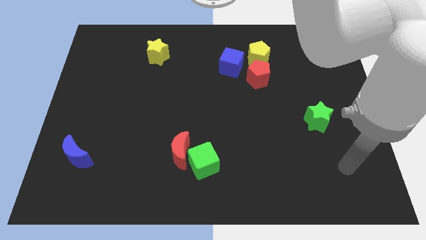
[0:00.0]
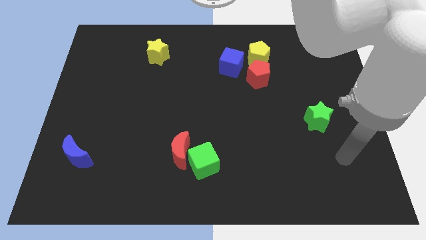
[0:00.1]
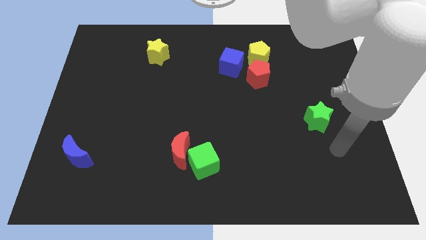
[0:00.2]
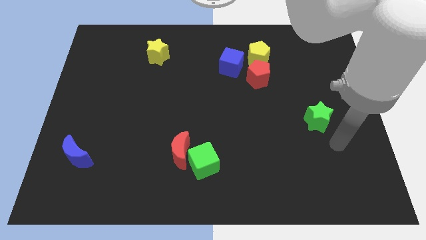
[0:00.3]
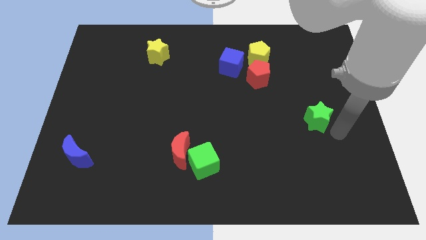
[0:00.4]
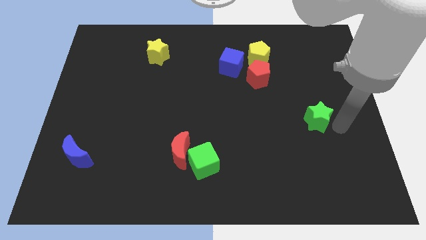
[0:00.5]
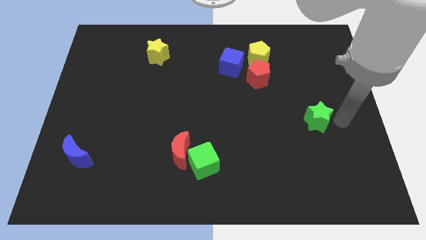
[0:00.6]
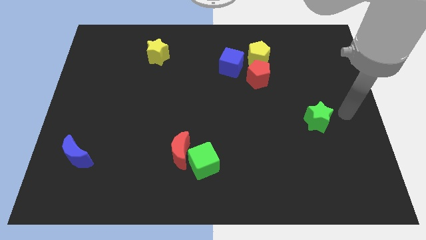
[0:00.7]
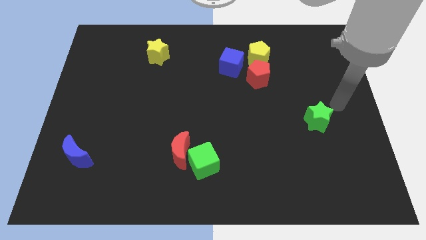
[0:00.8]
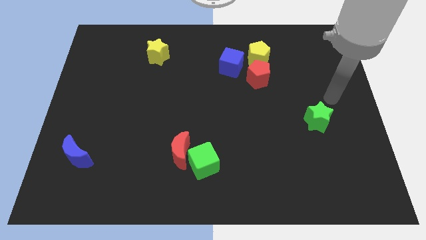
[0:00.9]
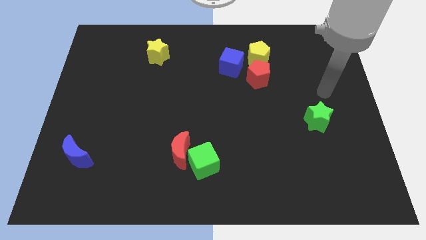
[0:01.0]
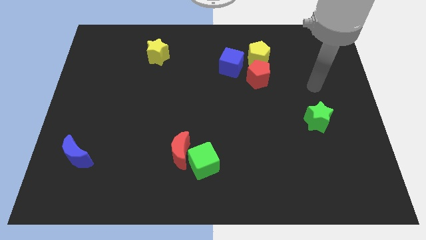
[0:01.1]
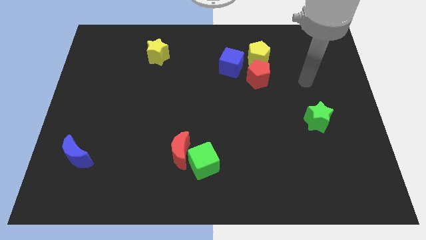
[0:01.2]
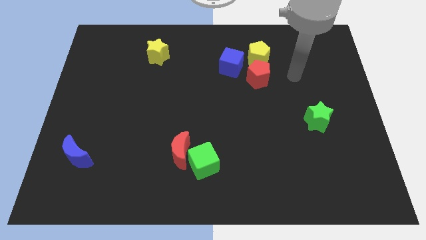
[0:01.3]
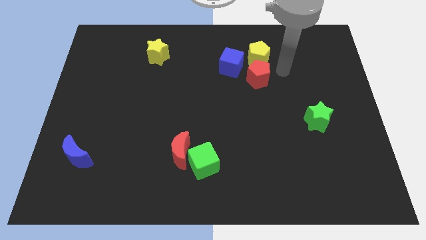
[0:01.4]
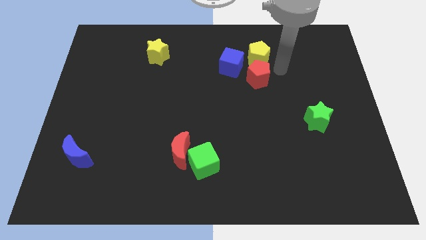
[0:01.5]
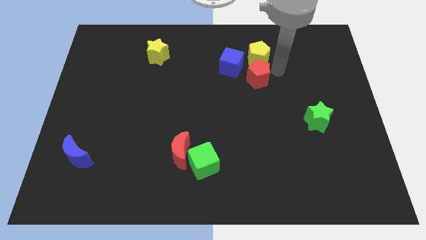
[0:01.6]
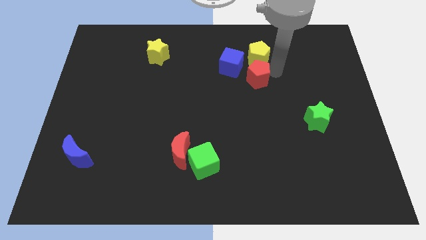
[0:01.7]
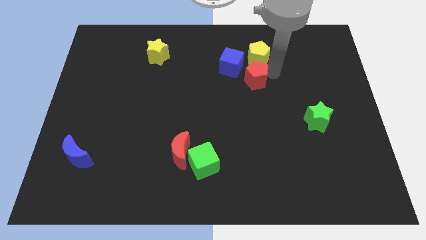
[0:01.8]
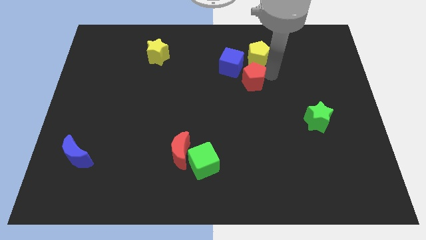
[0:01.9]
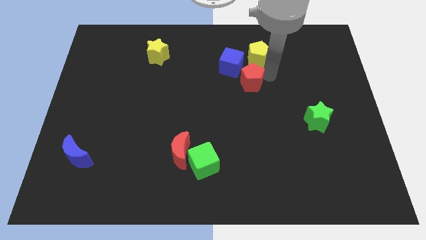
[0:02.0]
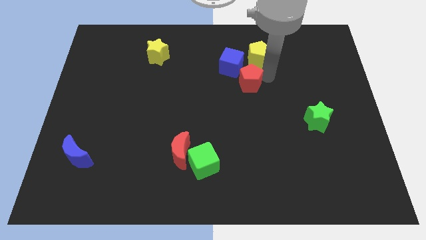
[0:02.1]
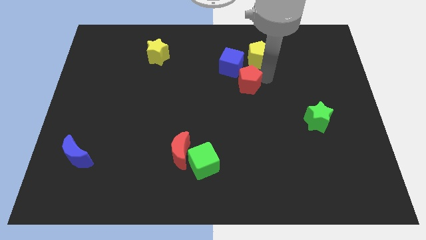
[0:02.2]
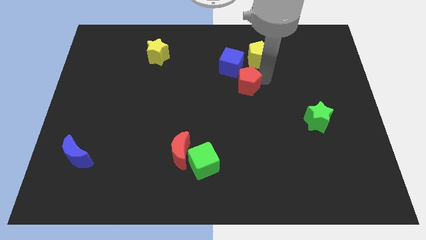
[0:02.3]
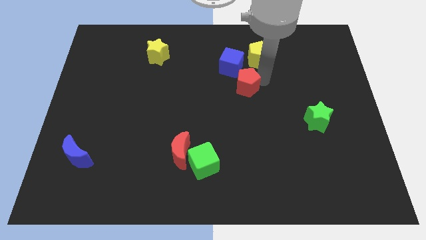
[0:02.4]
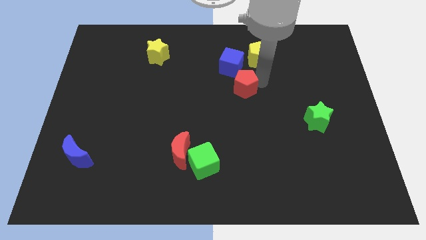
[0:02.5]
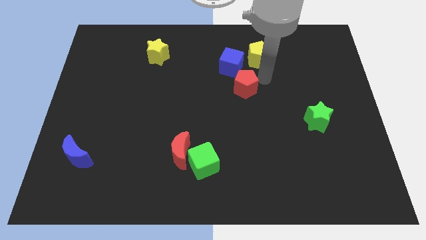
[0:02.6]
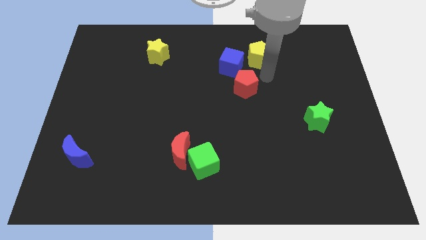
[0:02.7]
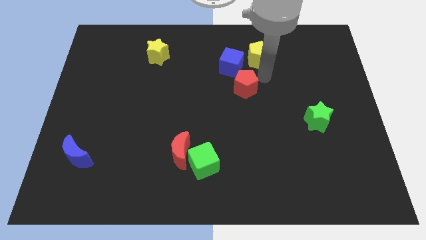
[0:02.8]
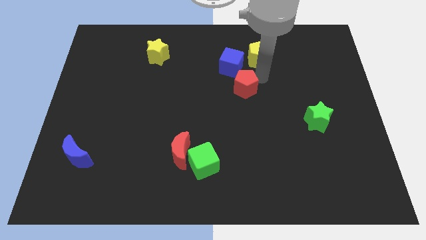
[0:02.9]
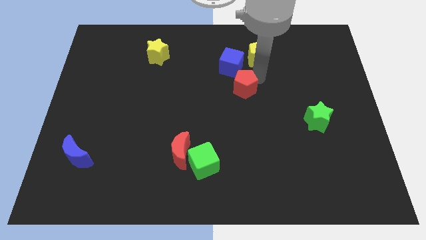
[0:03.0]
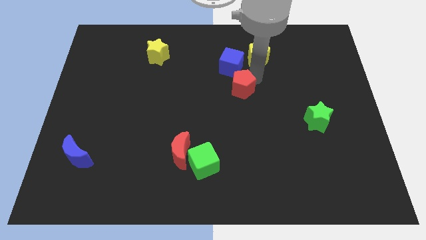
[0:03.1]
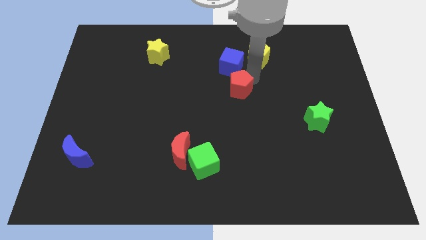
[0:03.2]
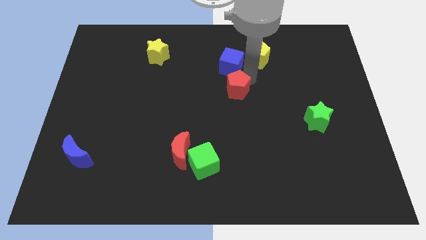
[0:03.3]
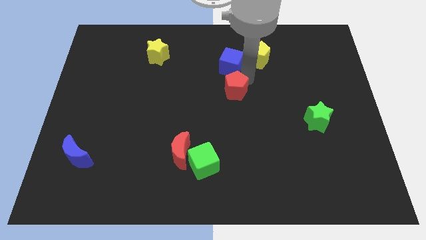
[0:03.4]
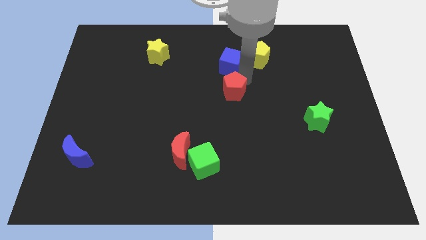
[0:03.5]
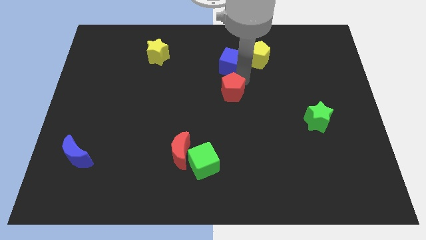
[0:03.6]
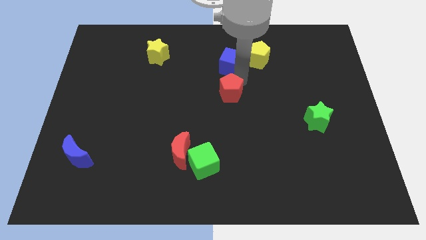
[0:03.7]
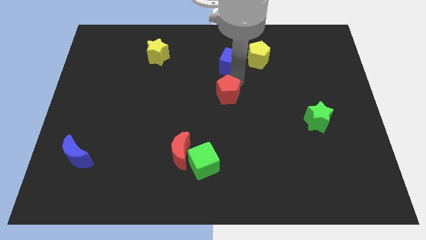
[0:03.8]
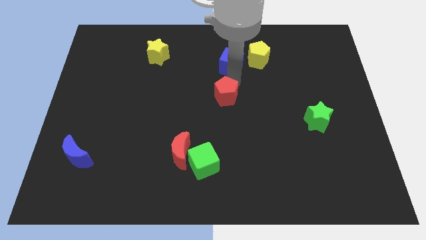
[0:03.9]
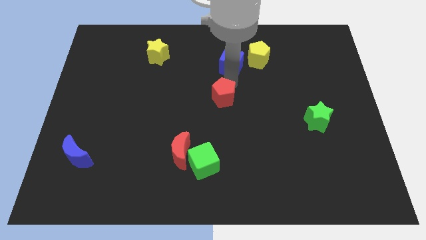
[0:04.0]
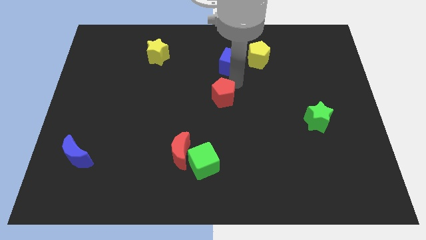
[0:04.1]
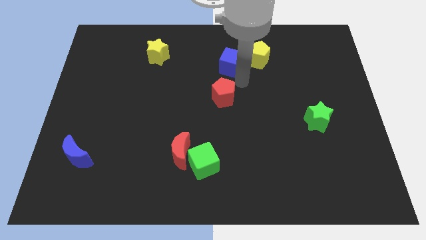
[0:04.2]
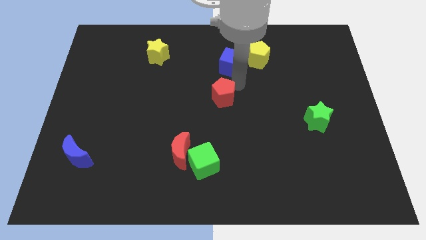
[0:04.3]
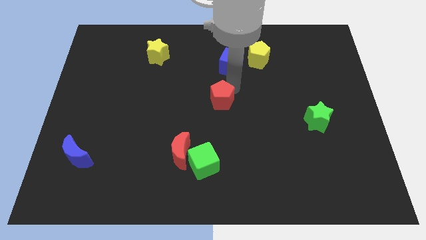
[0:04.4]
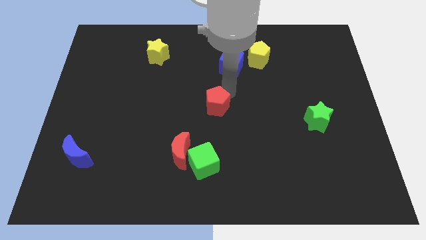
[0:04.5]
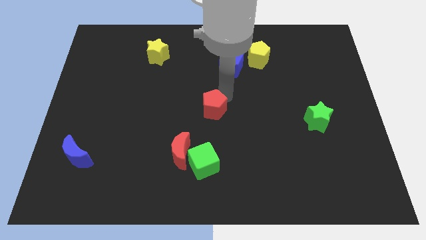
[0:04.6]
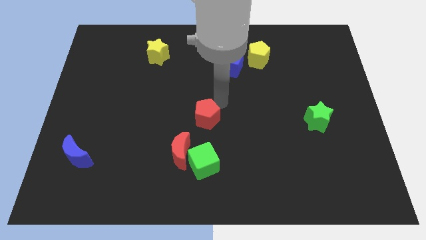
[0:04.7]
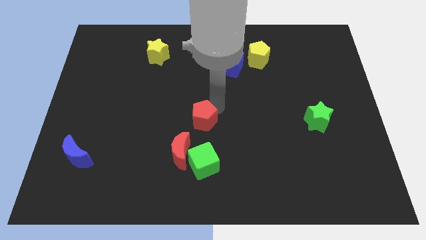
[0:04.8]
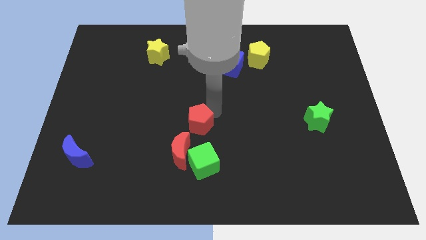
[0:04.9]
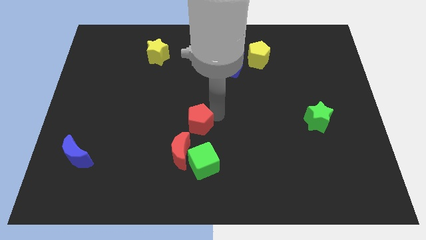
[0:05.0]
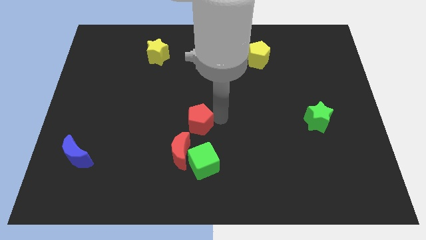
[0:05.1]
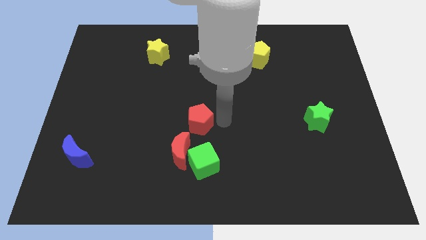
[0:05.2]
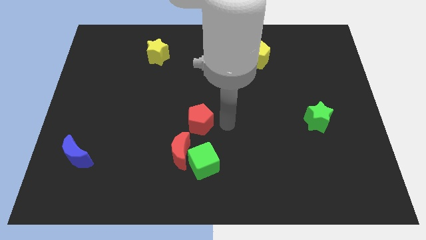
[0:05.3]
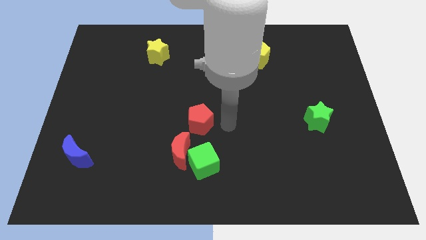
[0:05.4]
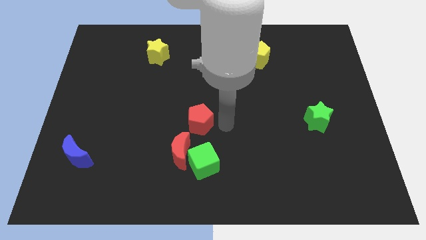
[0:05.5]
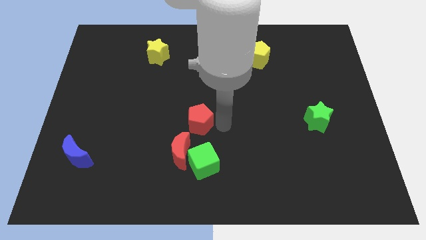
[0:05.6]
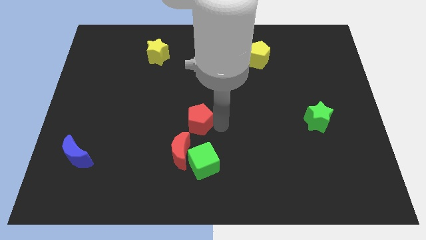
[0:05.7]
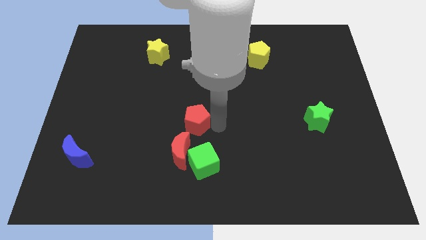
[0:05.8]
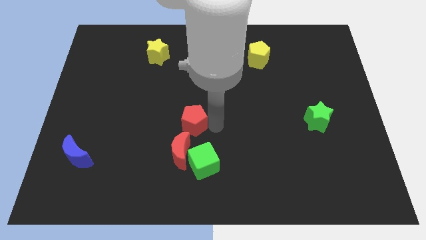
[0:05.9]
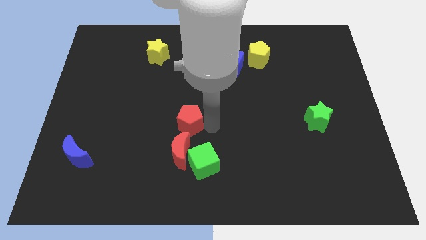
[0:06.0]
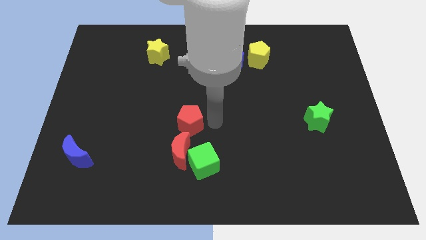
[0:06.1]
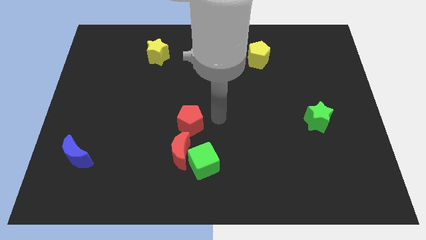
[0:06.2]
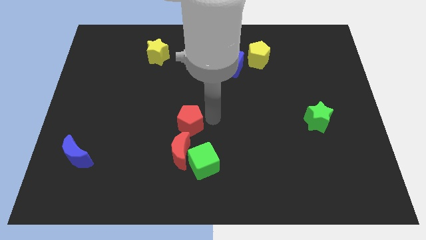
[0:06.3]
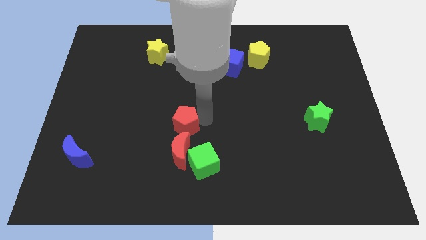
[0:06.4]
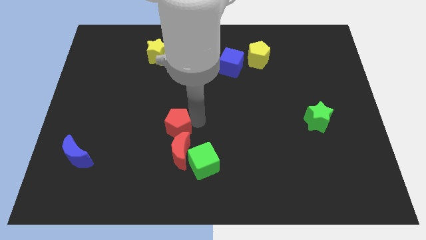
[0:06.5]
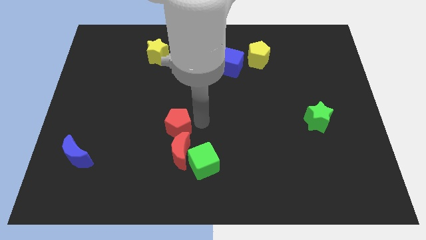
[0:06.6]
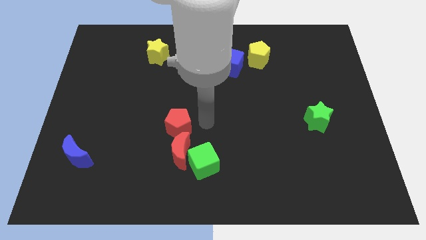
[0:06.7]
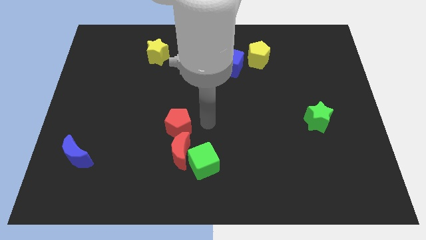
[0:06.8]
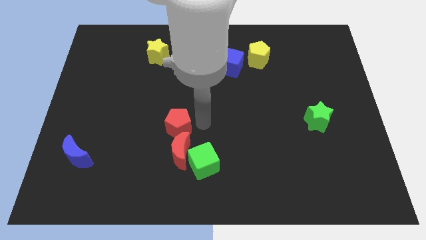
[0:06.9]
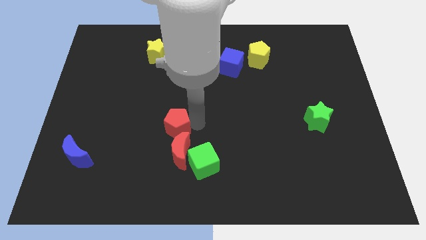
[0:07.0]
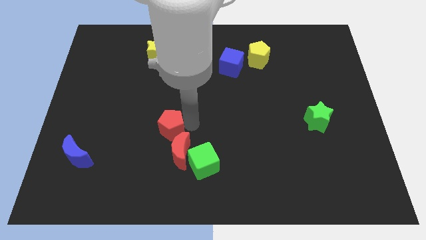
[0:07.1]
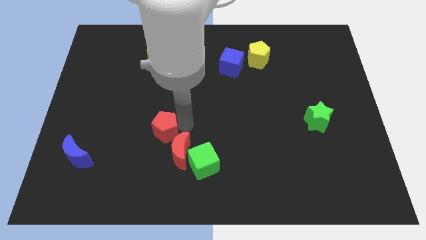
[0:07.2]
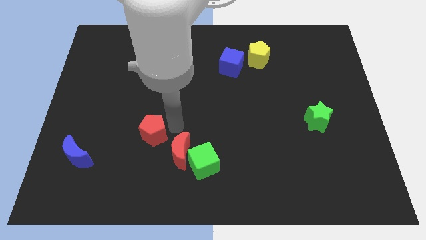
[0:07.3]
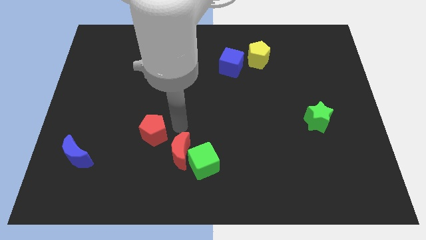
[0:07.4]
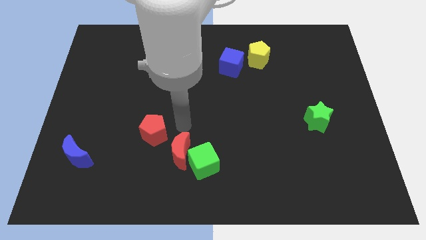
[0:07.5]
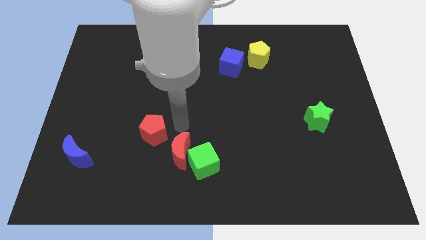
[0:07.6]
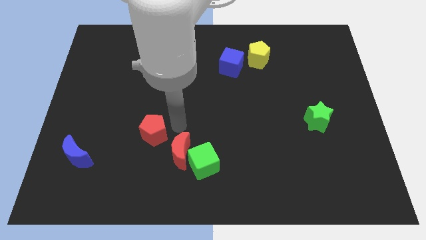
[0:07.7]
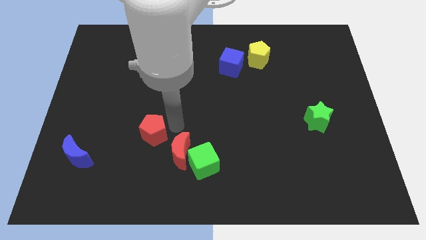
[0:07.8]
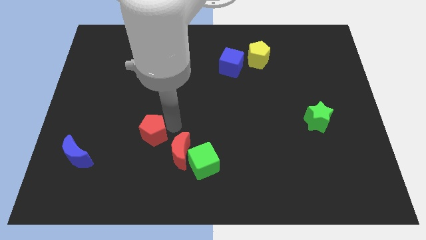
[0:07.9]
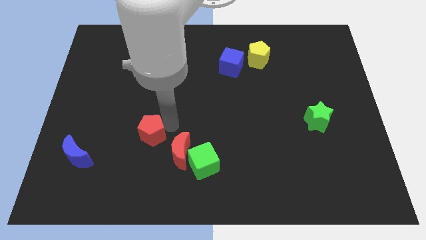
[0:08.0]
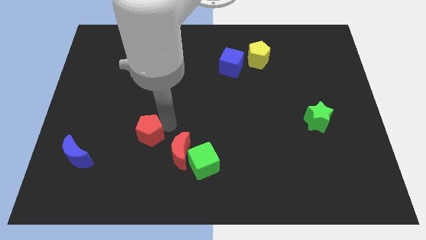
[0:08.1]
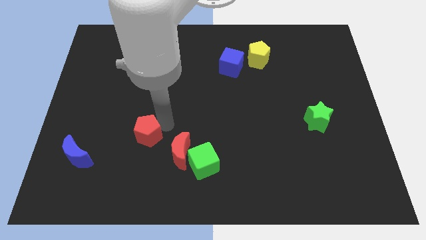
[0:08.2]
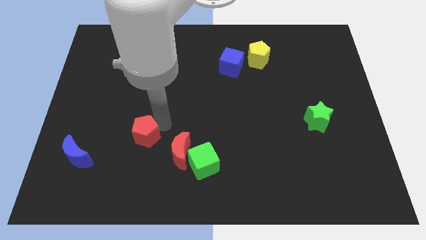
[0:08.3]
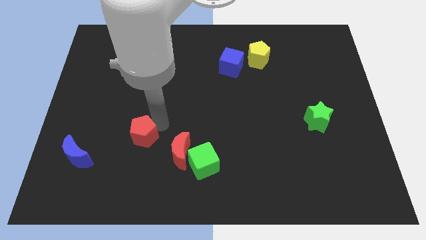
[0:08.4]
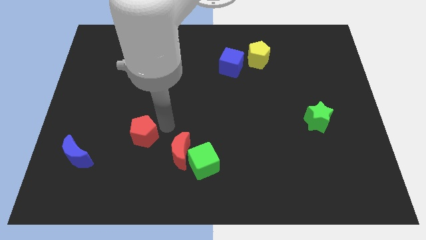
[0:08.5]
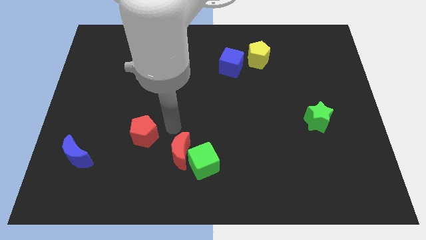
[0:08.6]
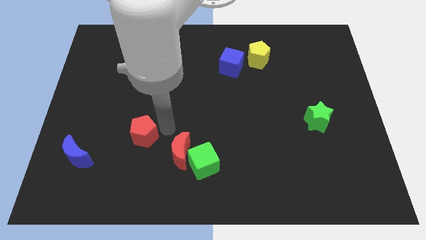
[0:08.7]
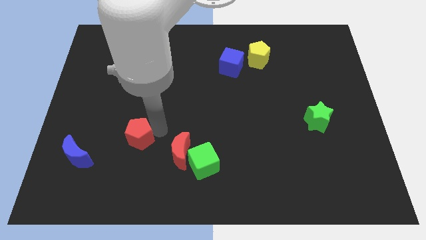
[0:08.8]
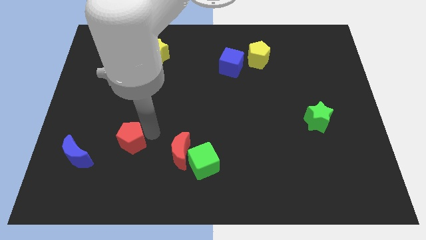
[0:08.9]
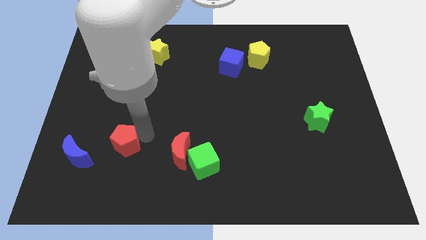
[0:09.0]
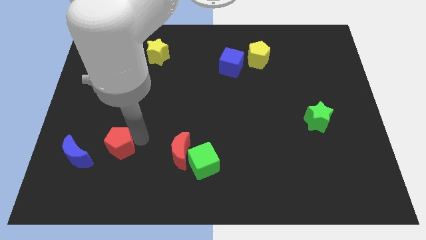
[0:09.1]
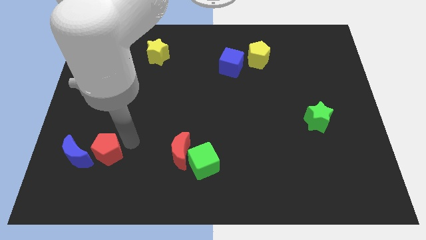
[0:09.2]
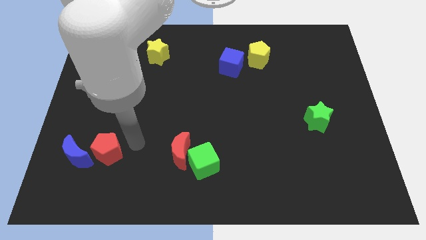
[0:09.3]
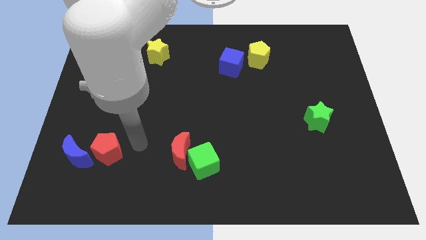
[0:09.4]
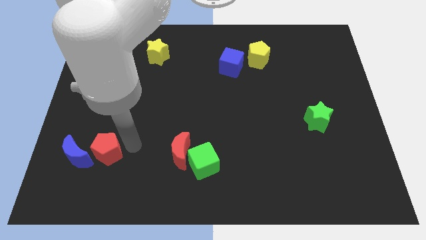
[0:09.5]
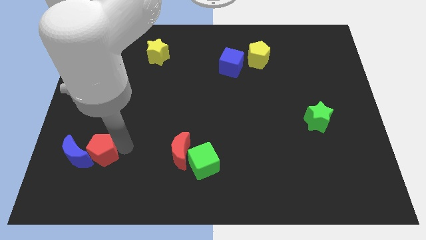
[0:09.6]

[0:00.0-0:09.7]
push the red pentagon next to the blue moon
